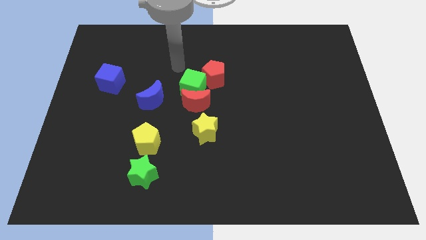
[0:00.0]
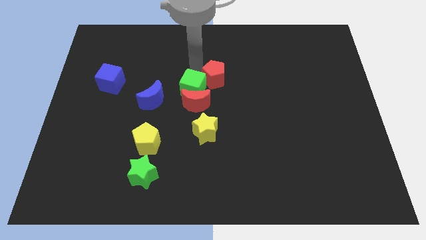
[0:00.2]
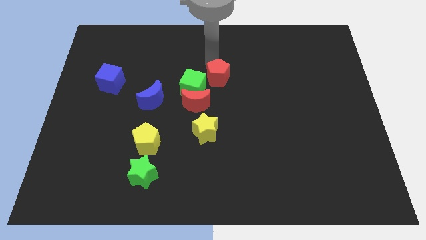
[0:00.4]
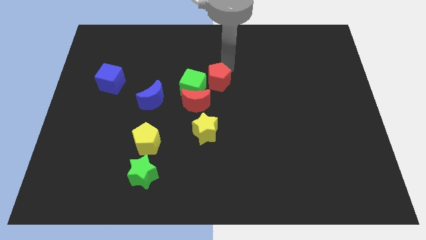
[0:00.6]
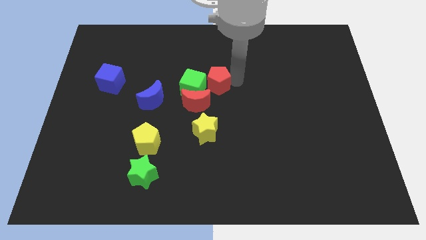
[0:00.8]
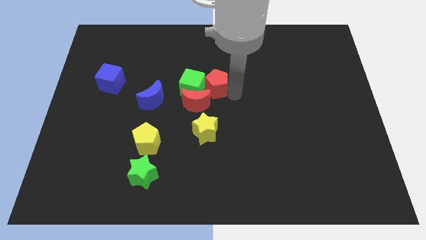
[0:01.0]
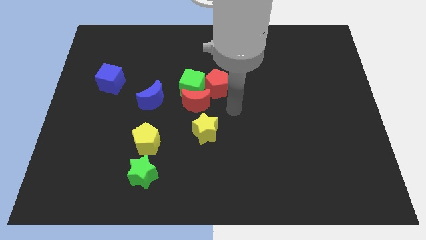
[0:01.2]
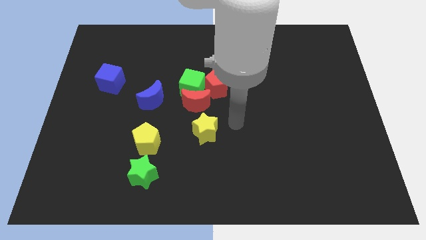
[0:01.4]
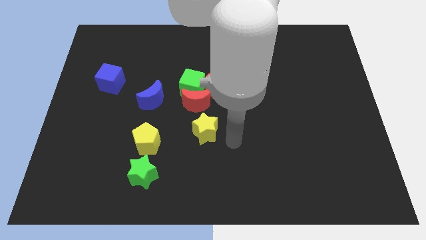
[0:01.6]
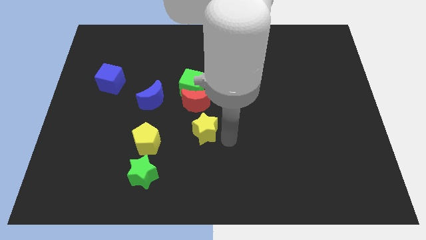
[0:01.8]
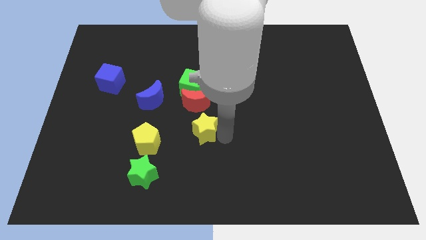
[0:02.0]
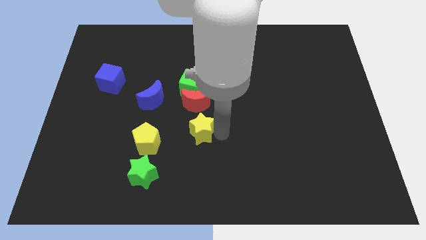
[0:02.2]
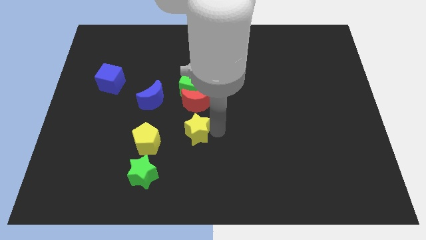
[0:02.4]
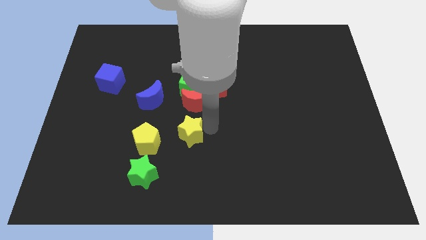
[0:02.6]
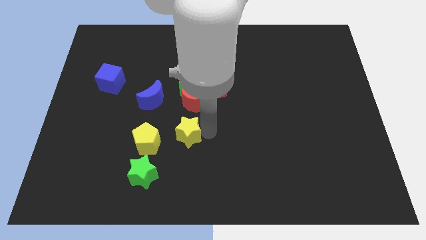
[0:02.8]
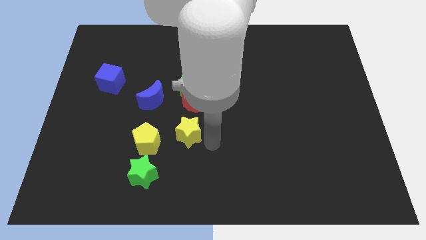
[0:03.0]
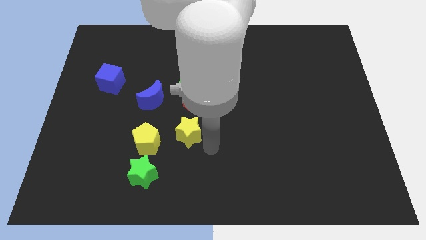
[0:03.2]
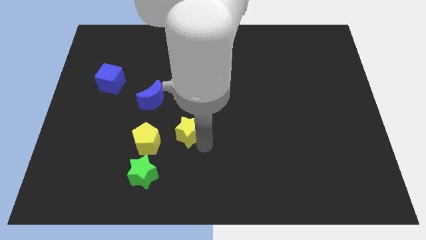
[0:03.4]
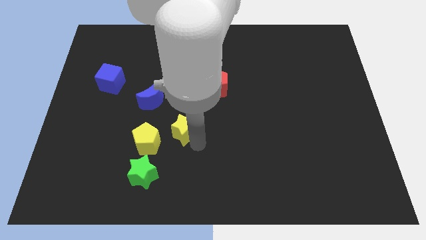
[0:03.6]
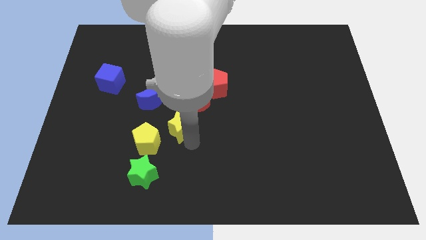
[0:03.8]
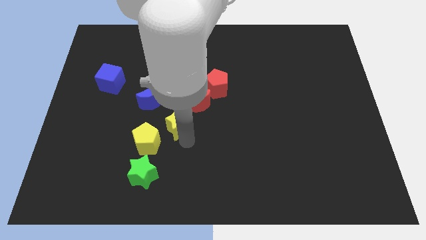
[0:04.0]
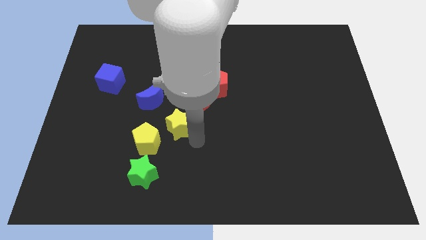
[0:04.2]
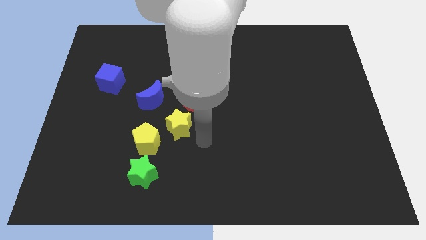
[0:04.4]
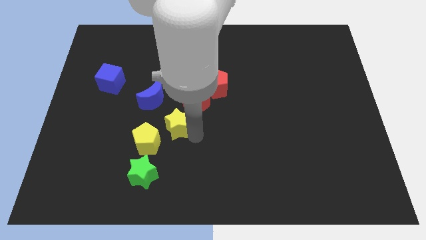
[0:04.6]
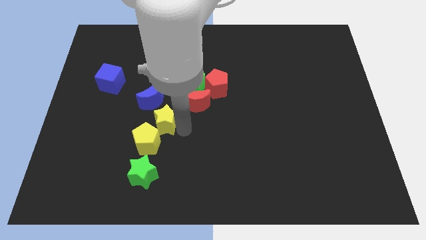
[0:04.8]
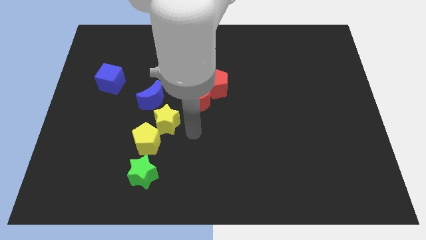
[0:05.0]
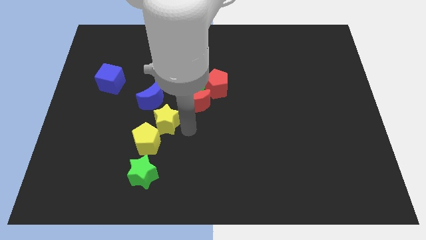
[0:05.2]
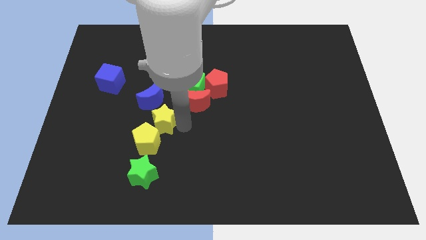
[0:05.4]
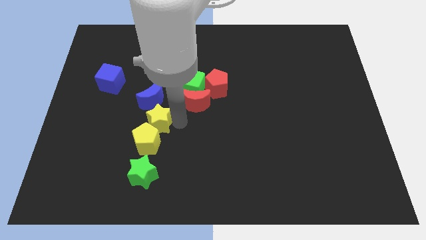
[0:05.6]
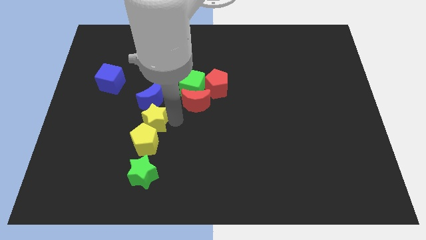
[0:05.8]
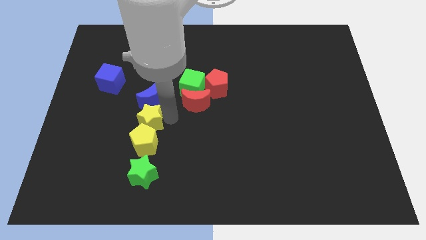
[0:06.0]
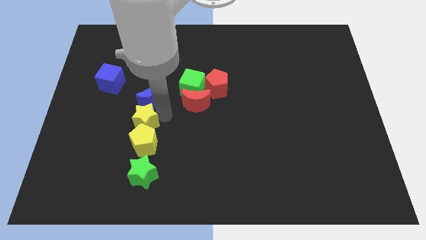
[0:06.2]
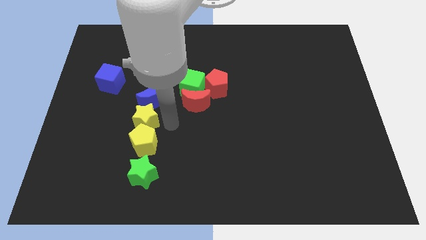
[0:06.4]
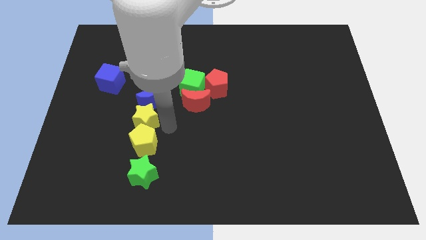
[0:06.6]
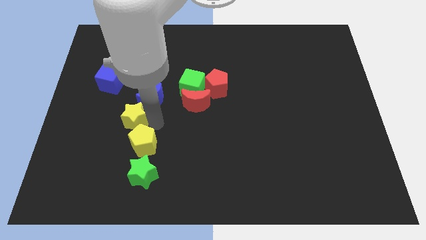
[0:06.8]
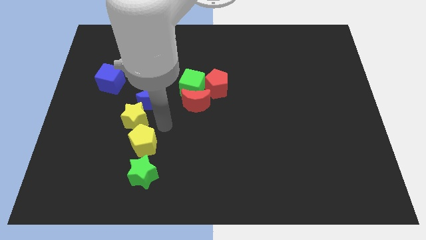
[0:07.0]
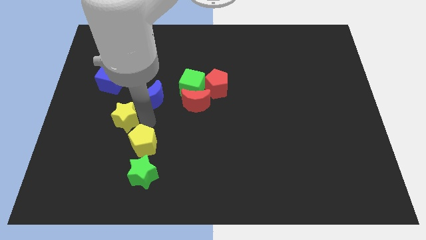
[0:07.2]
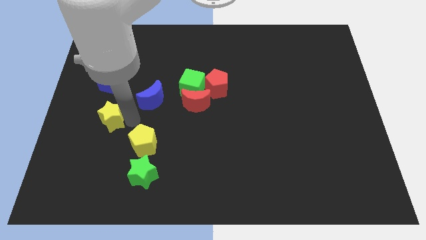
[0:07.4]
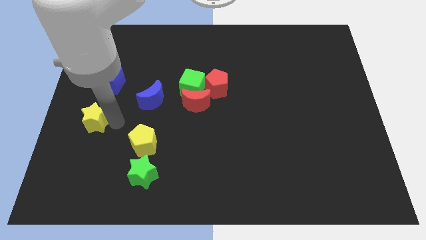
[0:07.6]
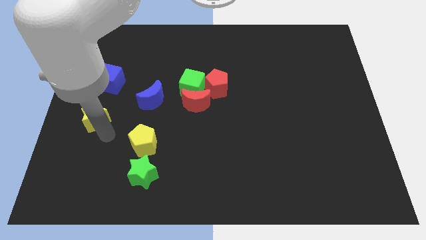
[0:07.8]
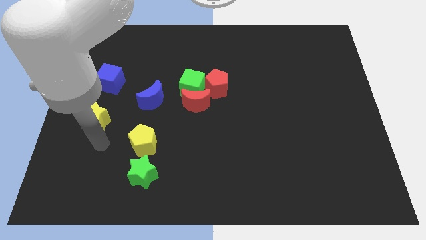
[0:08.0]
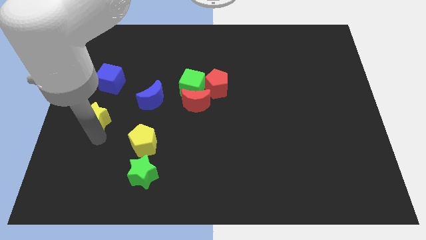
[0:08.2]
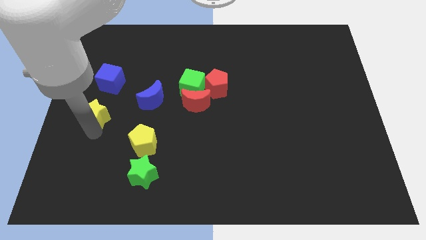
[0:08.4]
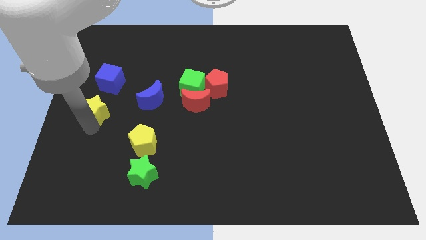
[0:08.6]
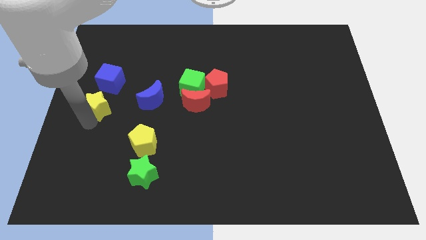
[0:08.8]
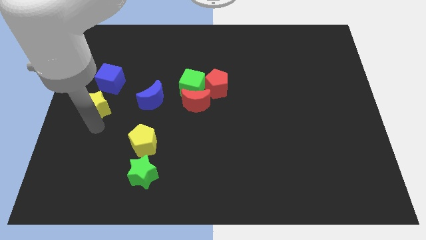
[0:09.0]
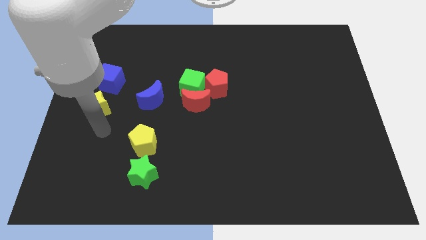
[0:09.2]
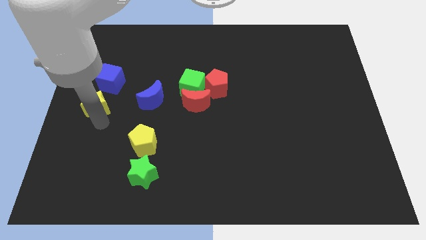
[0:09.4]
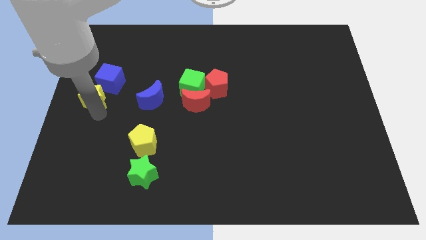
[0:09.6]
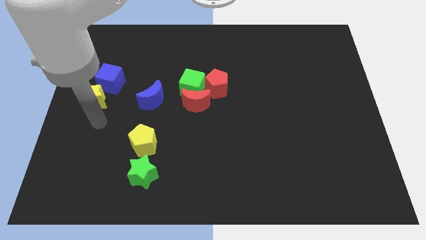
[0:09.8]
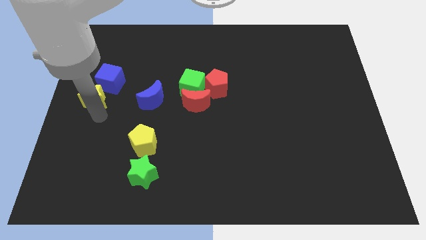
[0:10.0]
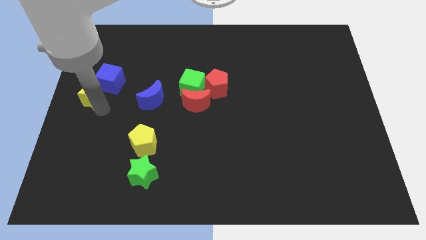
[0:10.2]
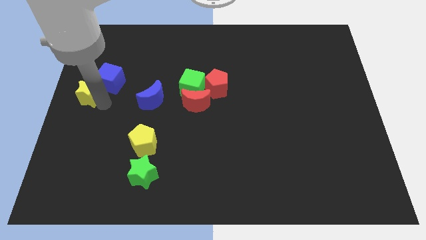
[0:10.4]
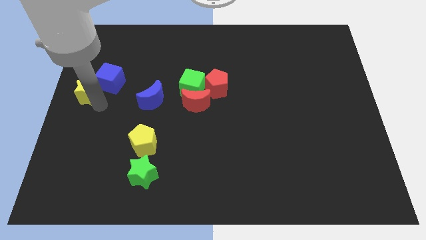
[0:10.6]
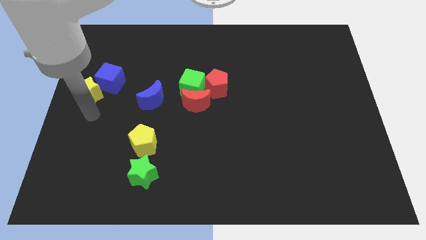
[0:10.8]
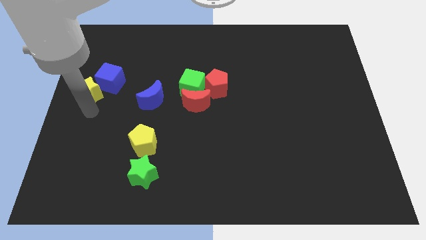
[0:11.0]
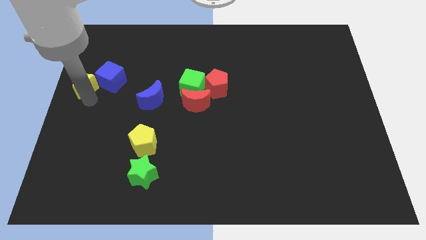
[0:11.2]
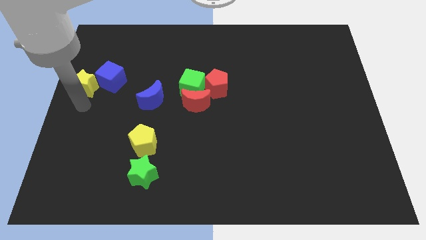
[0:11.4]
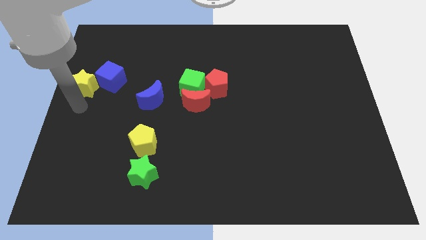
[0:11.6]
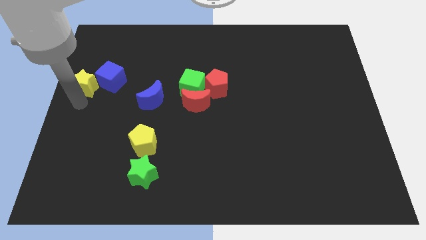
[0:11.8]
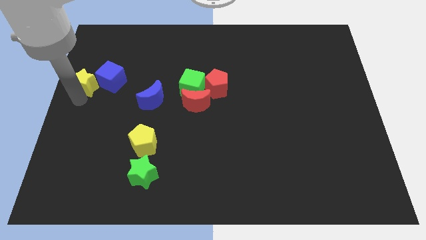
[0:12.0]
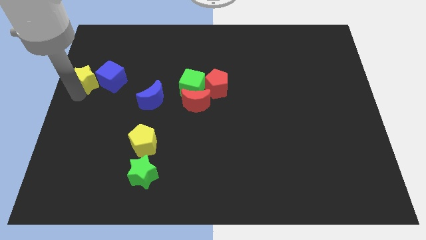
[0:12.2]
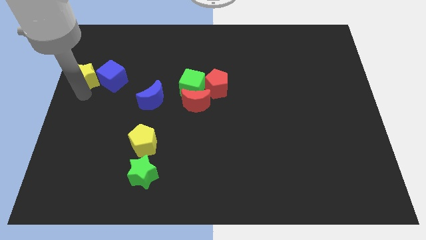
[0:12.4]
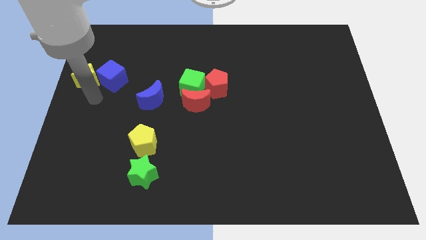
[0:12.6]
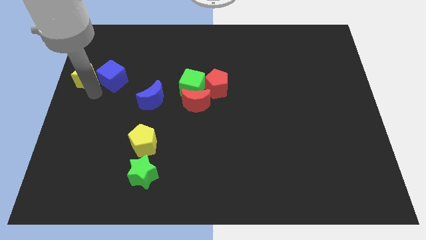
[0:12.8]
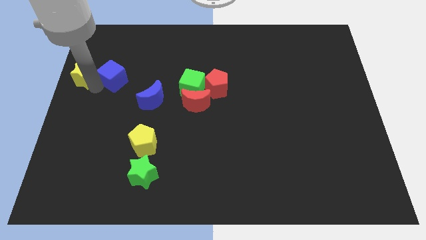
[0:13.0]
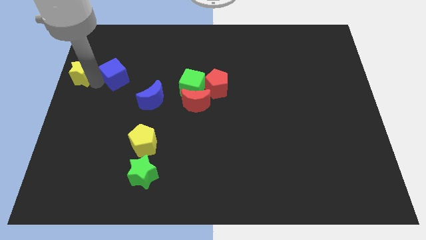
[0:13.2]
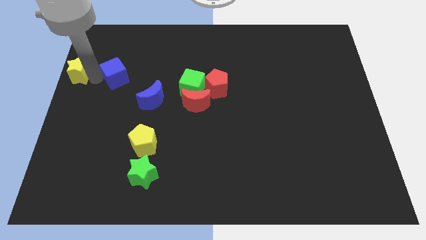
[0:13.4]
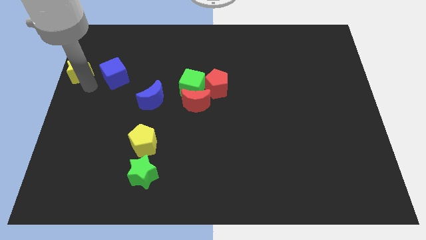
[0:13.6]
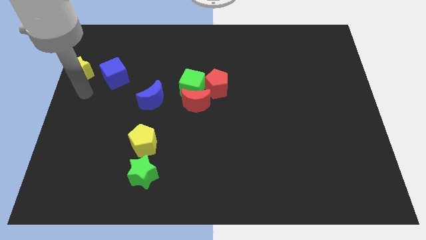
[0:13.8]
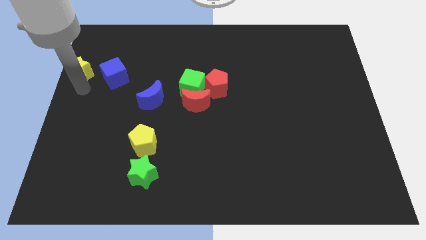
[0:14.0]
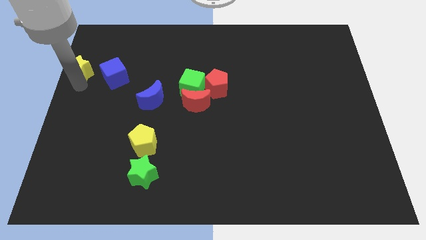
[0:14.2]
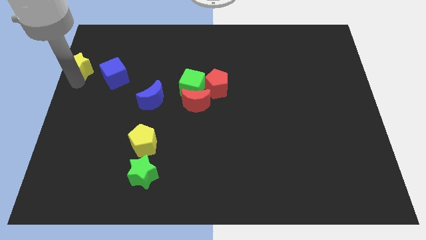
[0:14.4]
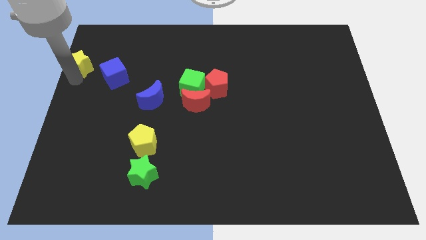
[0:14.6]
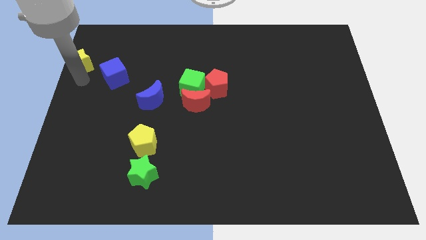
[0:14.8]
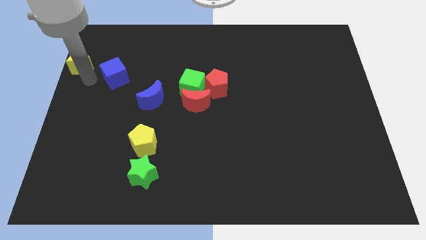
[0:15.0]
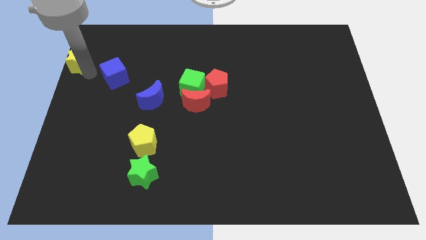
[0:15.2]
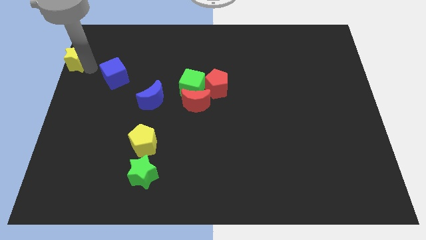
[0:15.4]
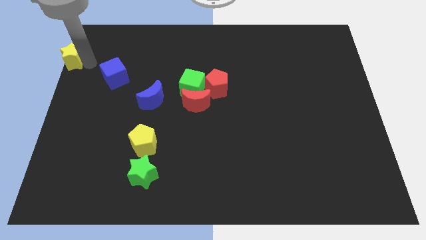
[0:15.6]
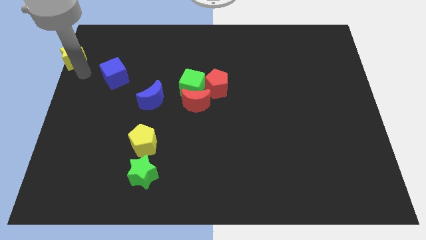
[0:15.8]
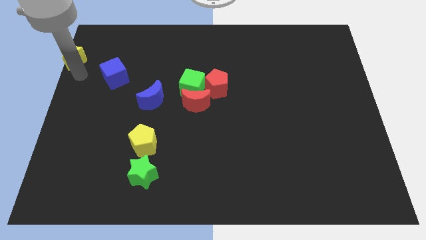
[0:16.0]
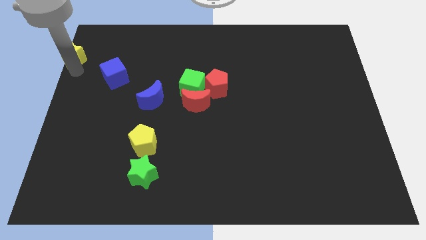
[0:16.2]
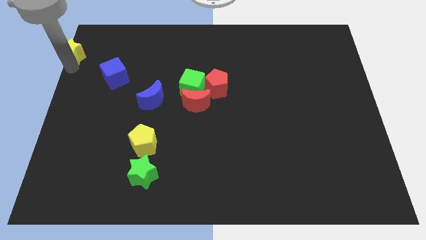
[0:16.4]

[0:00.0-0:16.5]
move the yellow star to the top left
